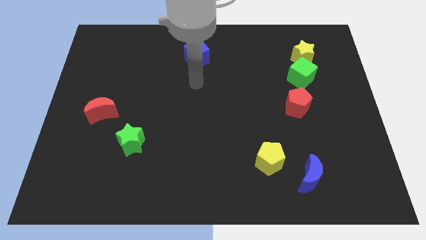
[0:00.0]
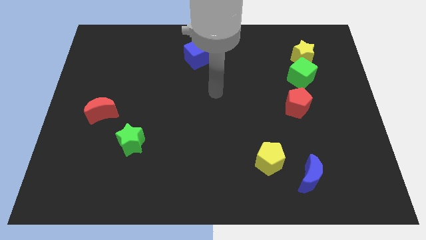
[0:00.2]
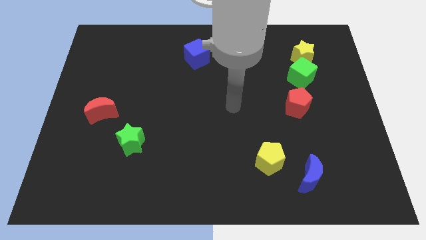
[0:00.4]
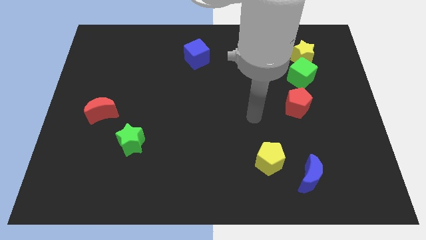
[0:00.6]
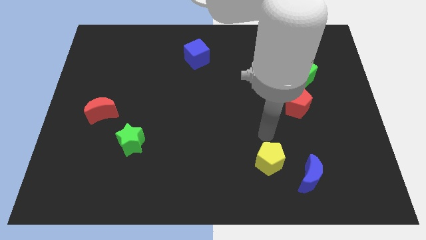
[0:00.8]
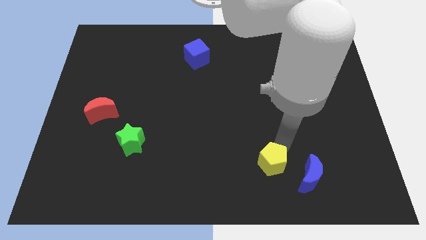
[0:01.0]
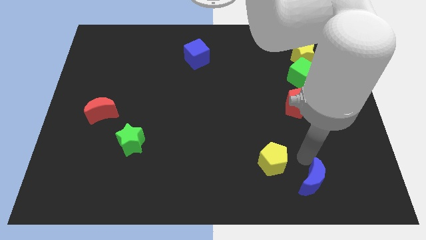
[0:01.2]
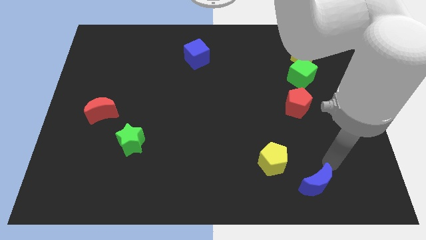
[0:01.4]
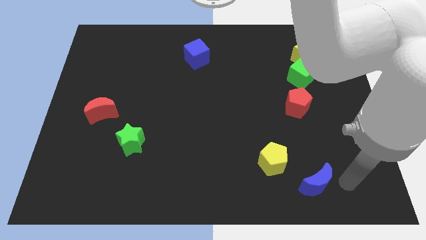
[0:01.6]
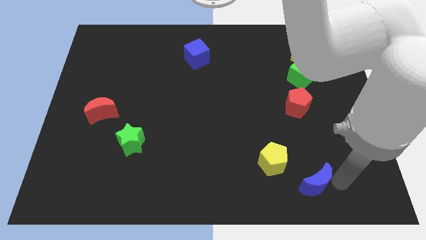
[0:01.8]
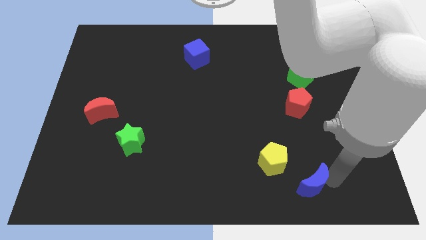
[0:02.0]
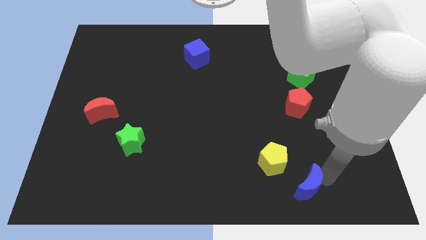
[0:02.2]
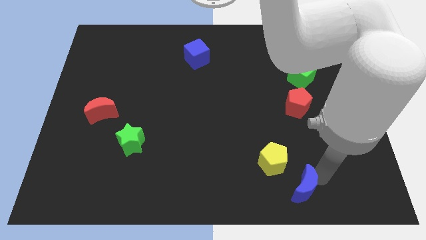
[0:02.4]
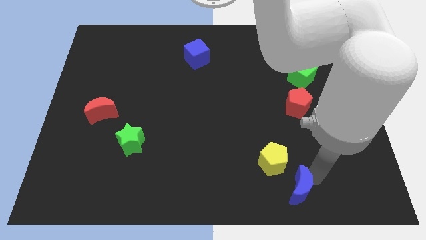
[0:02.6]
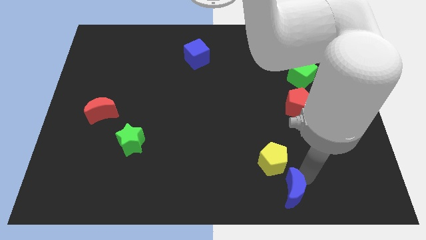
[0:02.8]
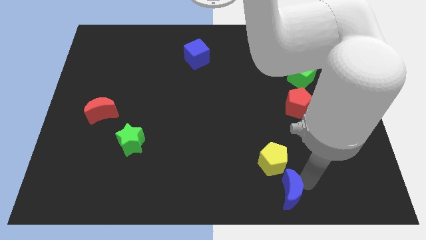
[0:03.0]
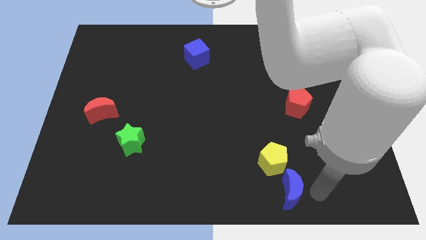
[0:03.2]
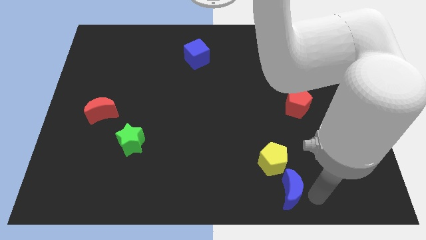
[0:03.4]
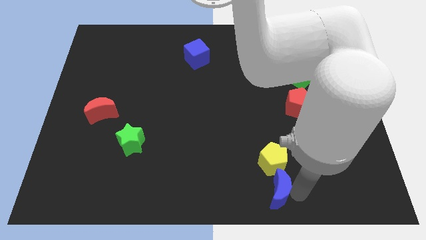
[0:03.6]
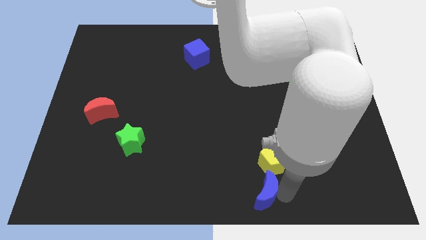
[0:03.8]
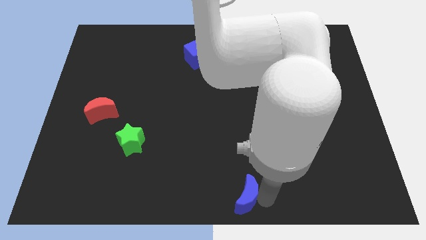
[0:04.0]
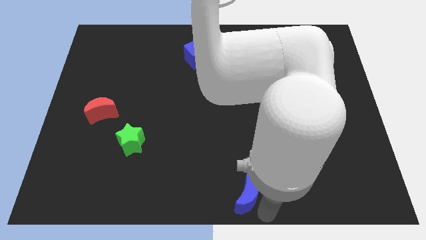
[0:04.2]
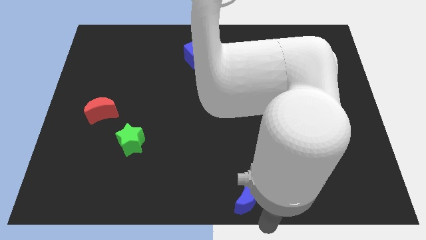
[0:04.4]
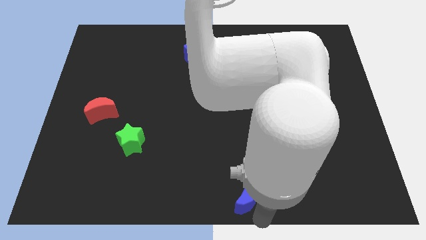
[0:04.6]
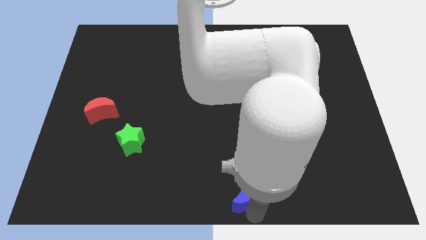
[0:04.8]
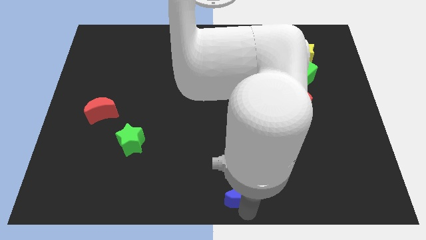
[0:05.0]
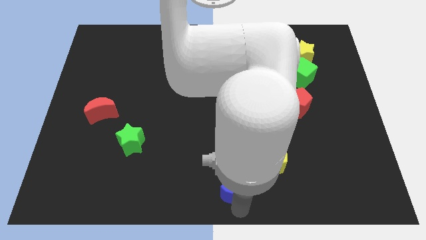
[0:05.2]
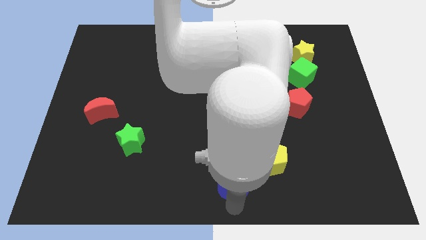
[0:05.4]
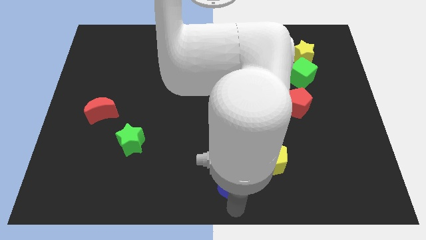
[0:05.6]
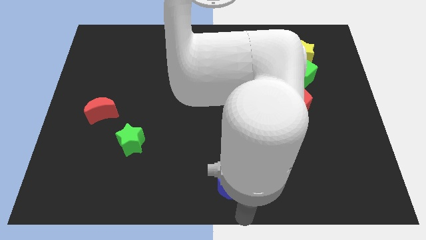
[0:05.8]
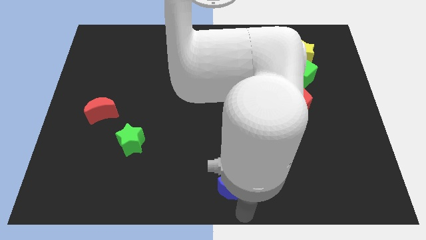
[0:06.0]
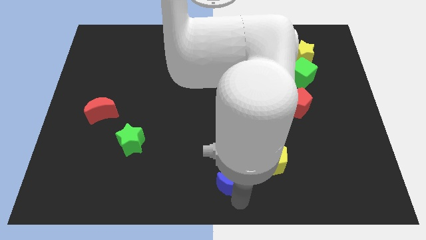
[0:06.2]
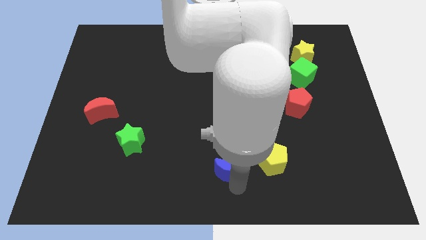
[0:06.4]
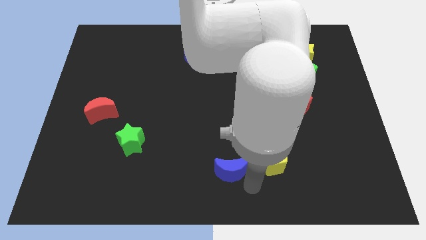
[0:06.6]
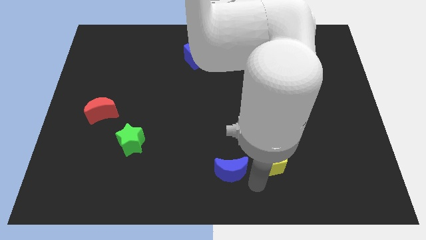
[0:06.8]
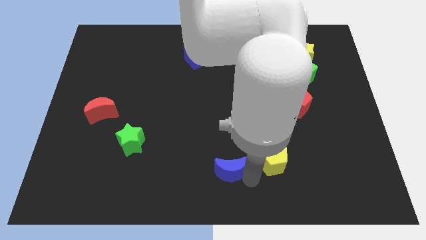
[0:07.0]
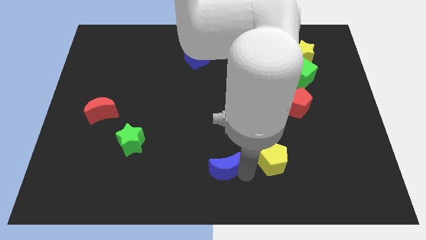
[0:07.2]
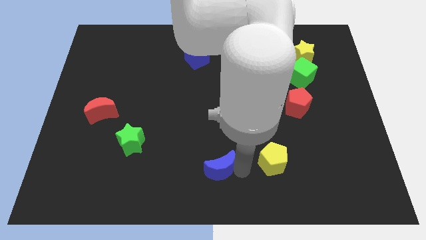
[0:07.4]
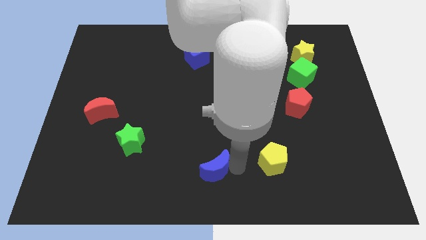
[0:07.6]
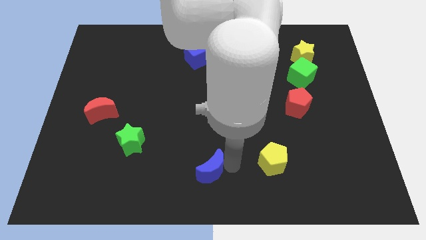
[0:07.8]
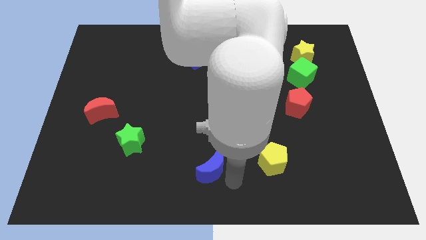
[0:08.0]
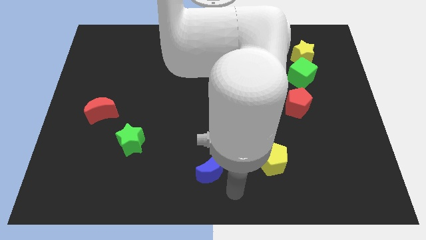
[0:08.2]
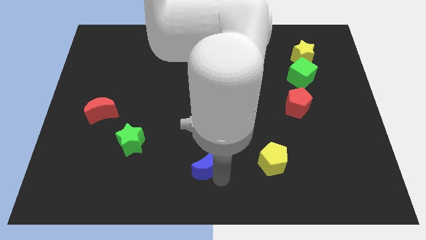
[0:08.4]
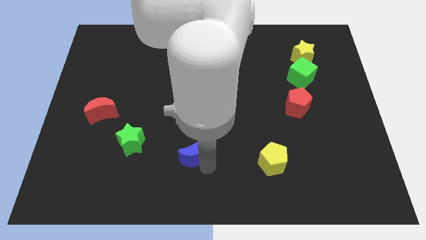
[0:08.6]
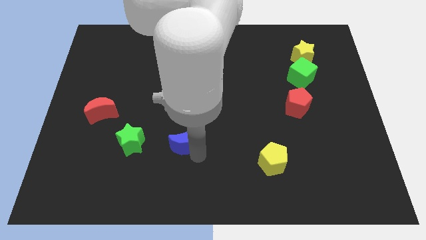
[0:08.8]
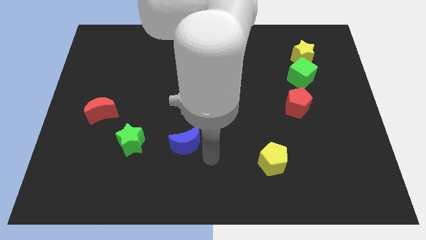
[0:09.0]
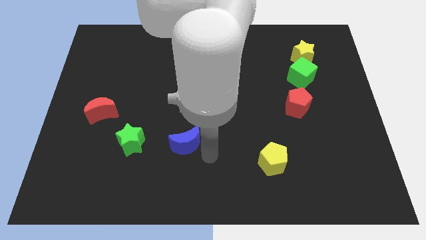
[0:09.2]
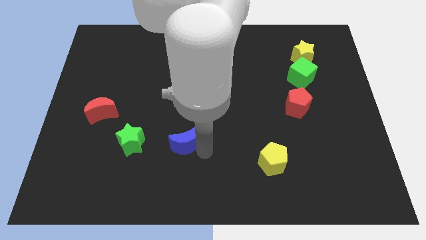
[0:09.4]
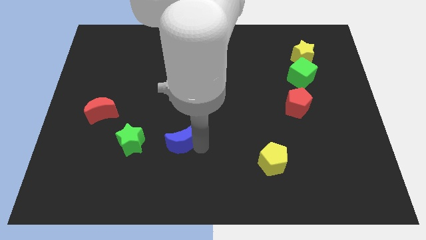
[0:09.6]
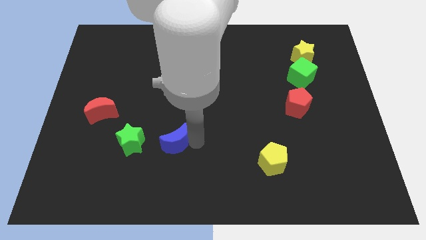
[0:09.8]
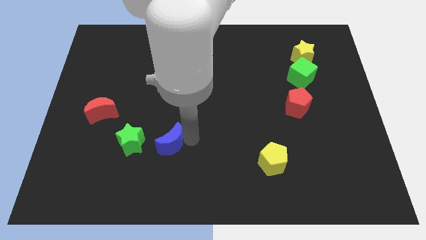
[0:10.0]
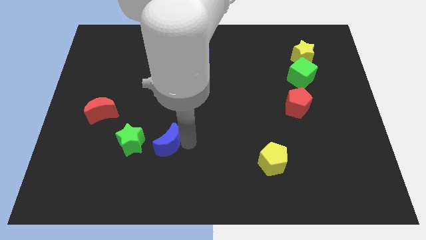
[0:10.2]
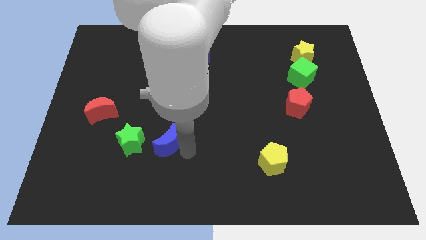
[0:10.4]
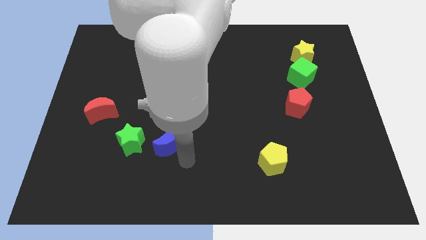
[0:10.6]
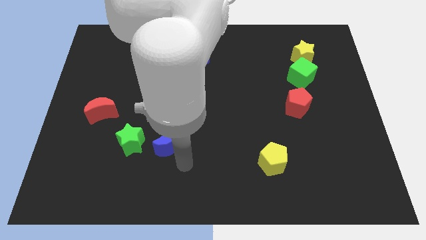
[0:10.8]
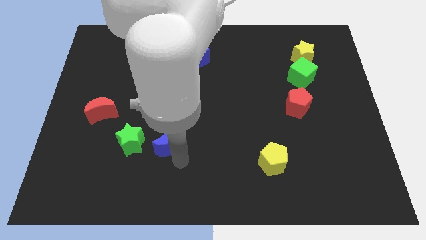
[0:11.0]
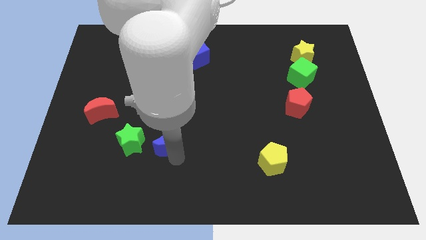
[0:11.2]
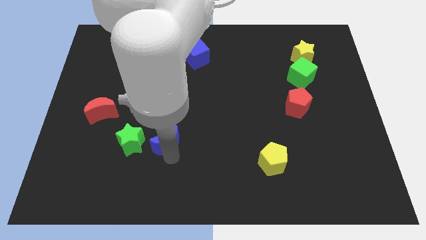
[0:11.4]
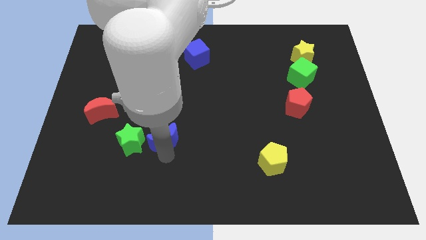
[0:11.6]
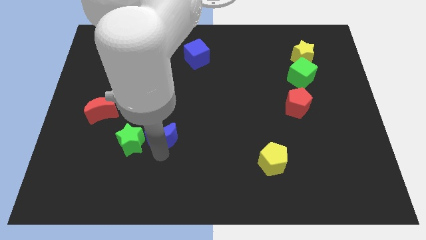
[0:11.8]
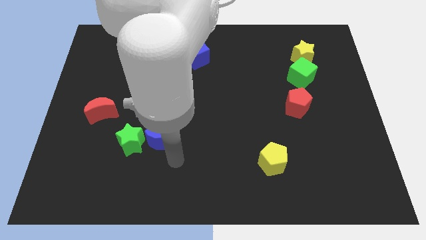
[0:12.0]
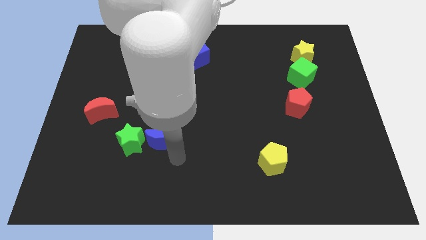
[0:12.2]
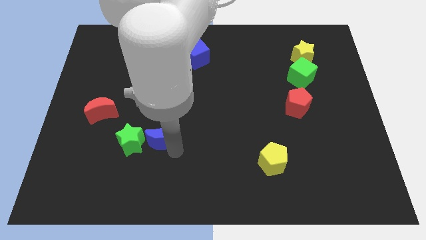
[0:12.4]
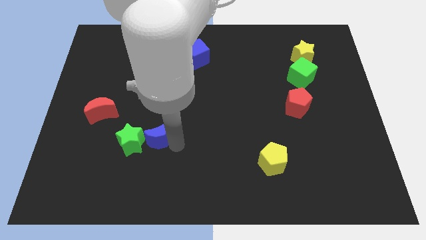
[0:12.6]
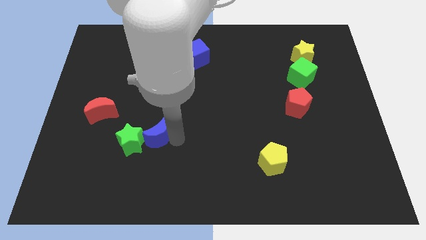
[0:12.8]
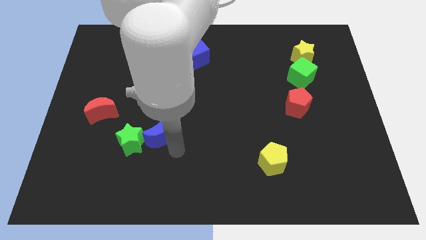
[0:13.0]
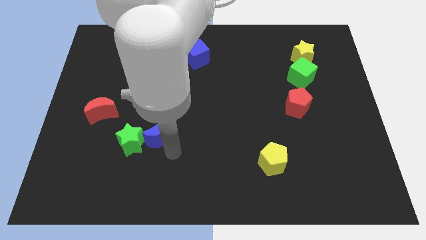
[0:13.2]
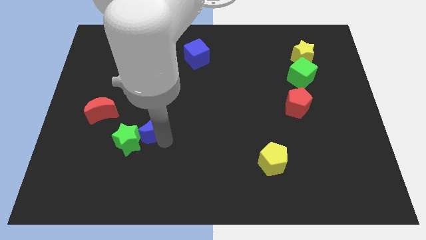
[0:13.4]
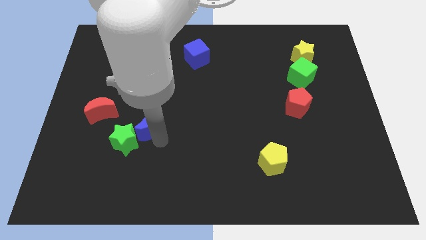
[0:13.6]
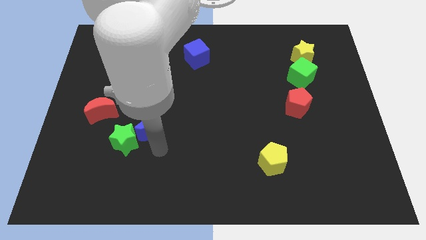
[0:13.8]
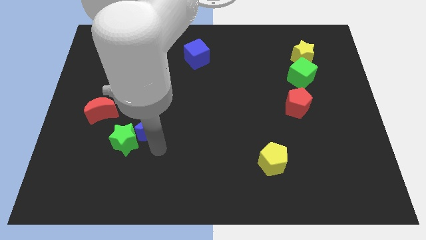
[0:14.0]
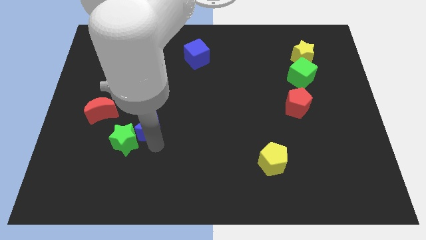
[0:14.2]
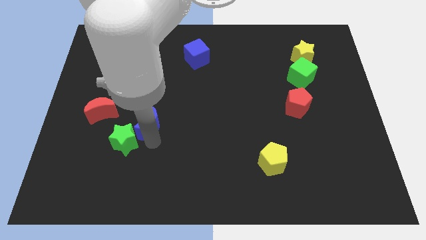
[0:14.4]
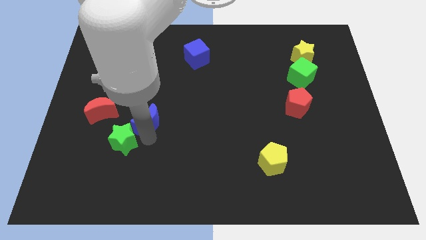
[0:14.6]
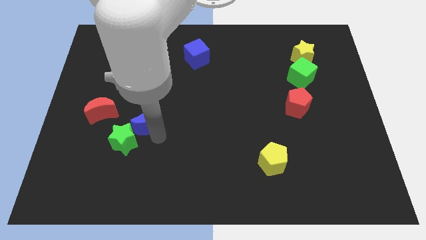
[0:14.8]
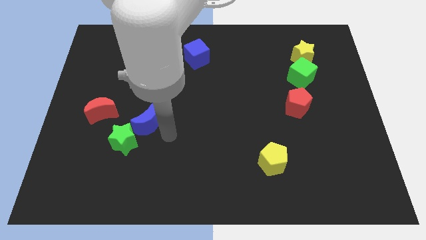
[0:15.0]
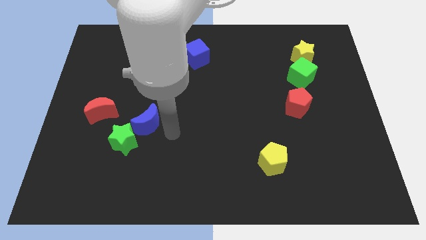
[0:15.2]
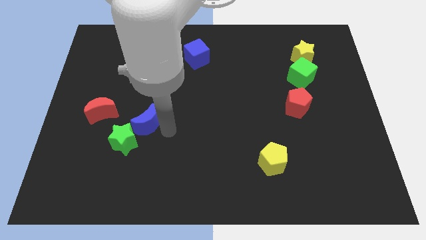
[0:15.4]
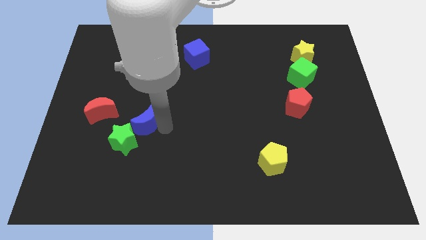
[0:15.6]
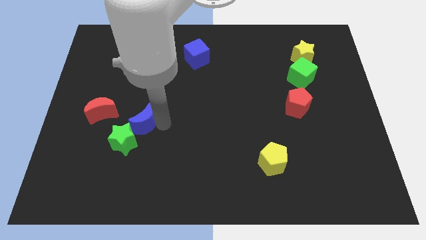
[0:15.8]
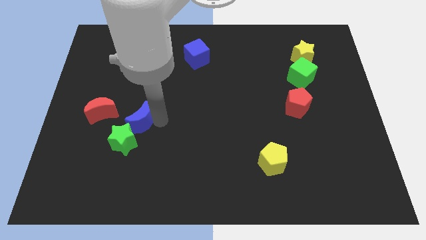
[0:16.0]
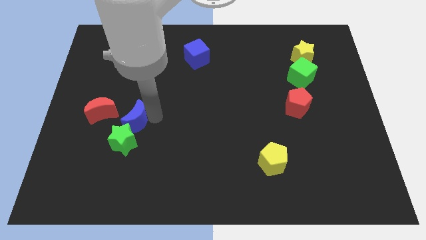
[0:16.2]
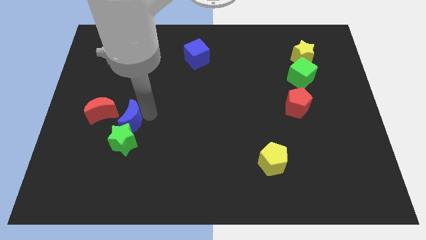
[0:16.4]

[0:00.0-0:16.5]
slide the blue moon to the top left of the green star
